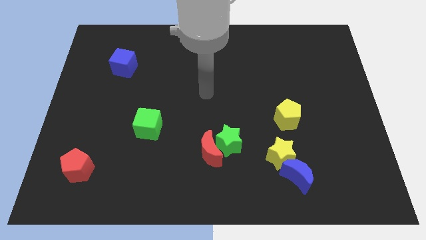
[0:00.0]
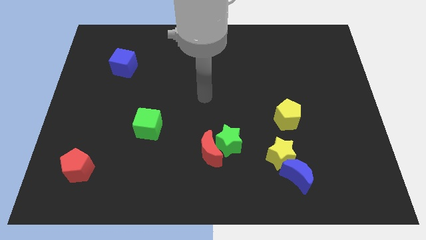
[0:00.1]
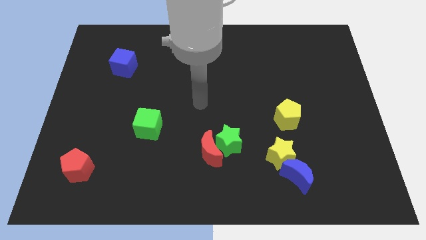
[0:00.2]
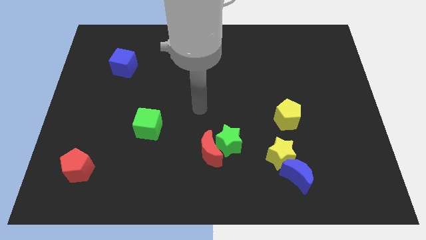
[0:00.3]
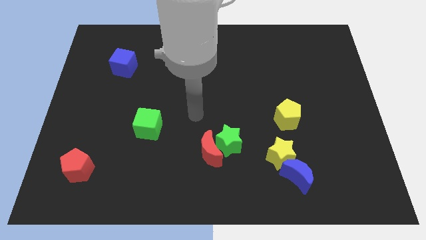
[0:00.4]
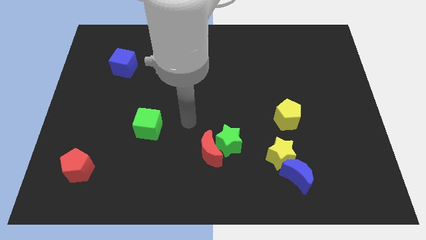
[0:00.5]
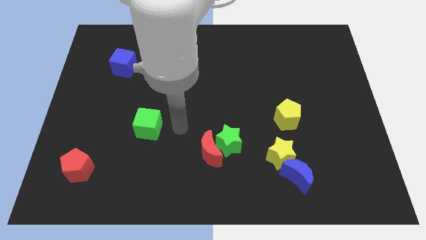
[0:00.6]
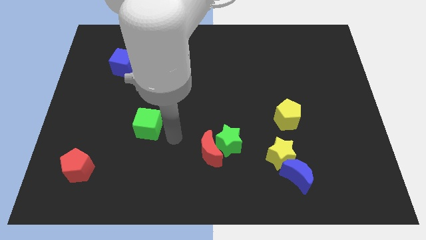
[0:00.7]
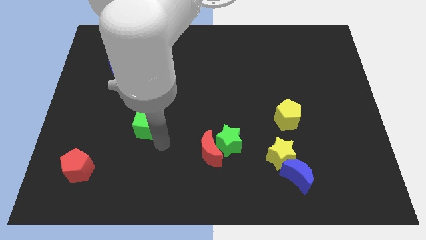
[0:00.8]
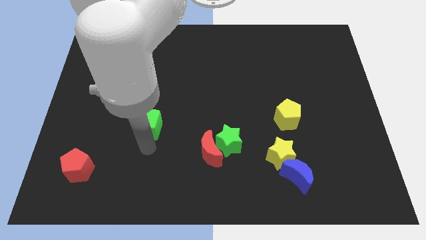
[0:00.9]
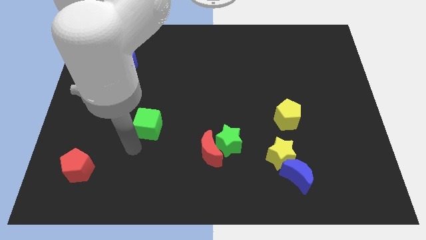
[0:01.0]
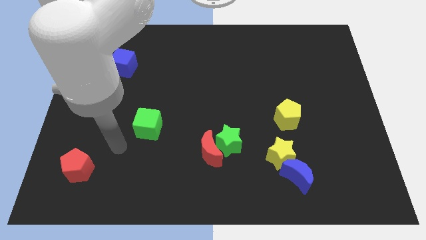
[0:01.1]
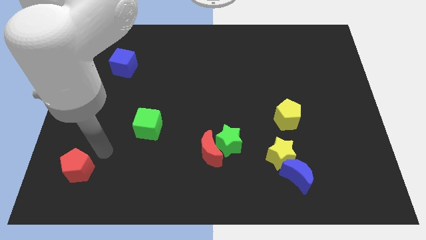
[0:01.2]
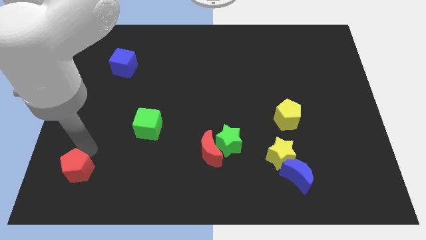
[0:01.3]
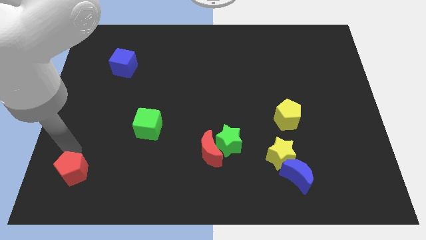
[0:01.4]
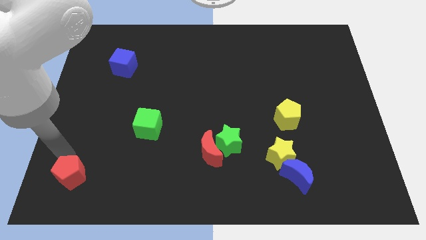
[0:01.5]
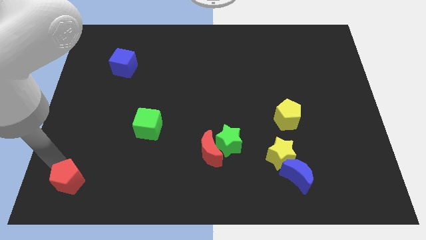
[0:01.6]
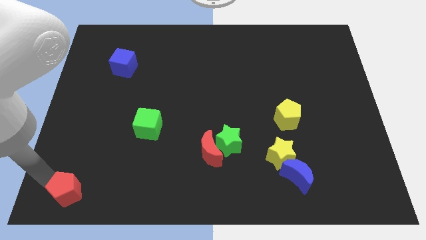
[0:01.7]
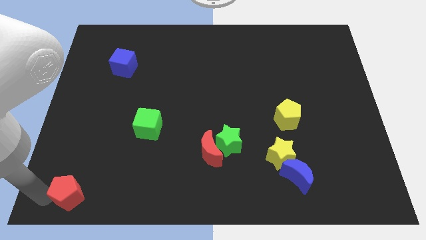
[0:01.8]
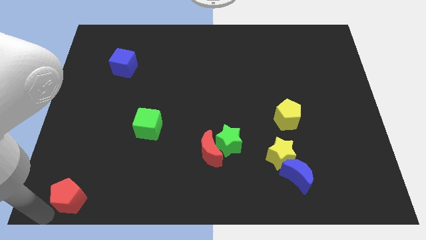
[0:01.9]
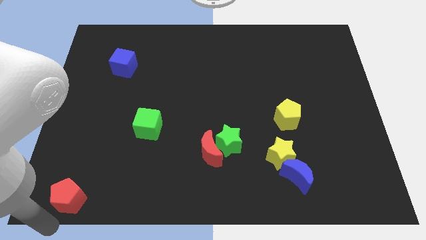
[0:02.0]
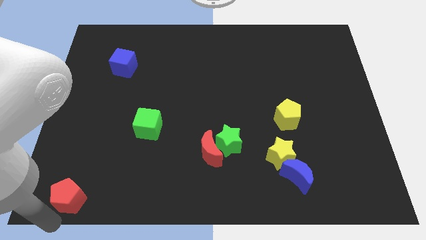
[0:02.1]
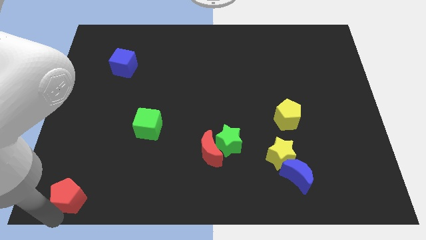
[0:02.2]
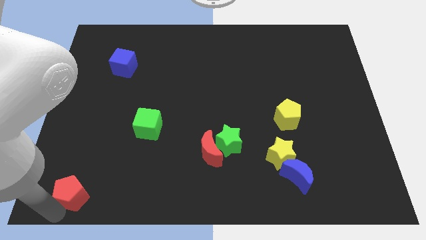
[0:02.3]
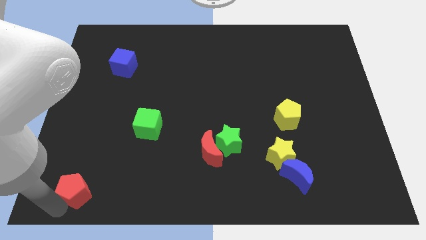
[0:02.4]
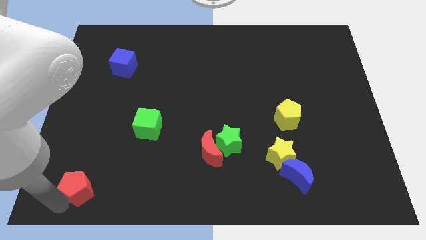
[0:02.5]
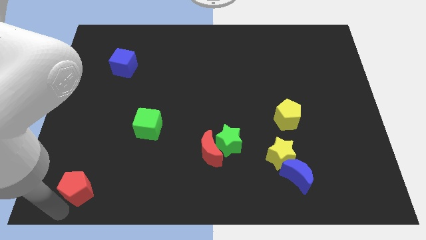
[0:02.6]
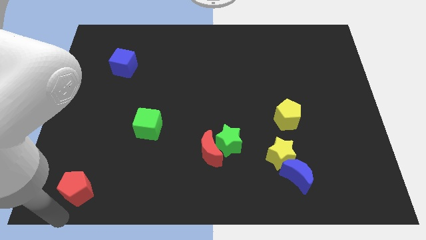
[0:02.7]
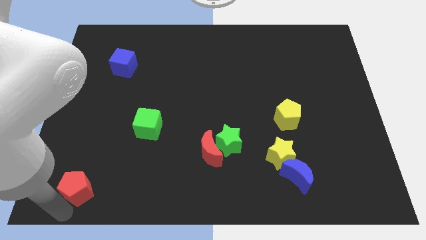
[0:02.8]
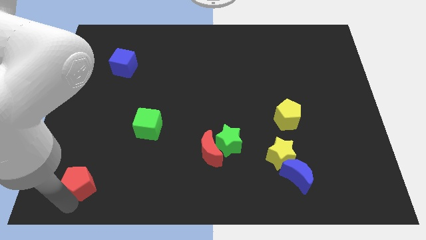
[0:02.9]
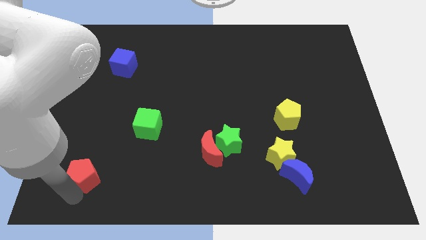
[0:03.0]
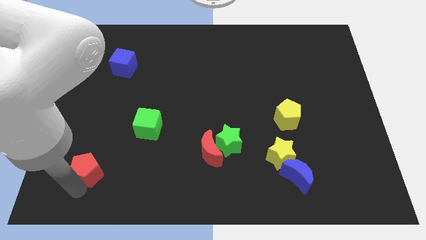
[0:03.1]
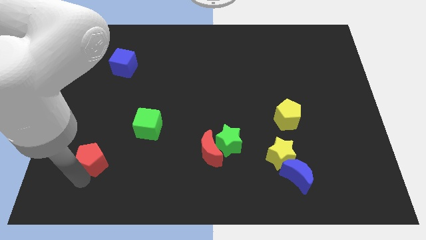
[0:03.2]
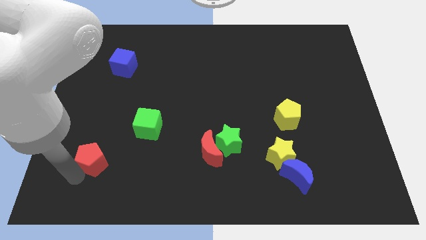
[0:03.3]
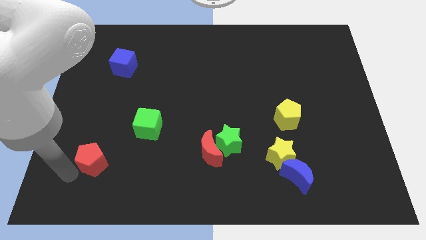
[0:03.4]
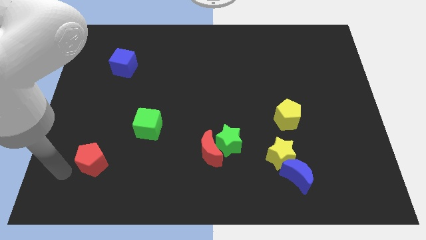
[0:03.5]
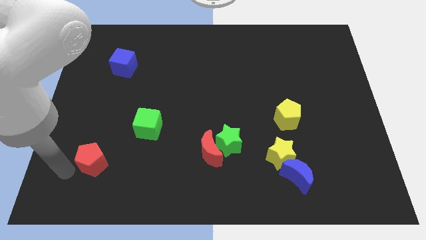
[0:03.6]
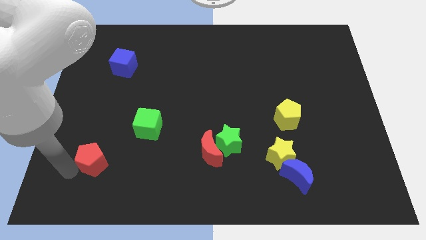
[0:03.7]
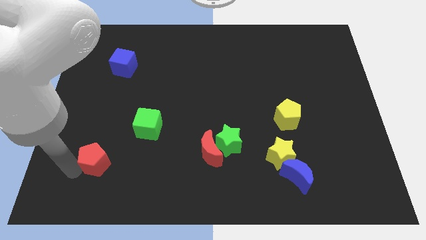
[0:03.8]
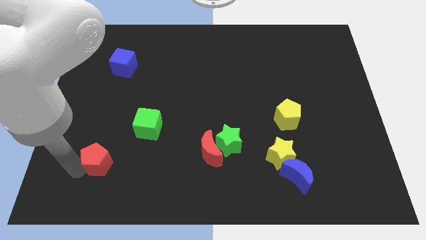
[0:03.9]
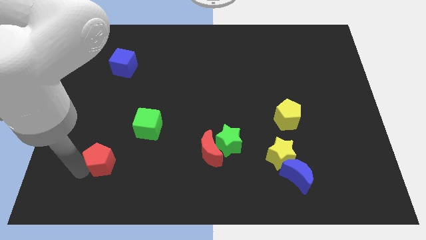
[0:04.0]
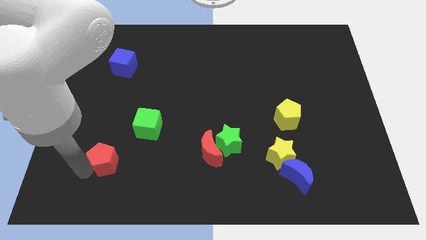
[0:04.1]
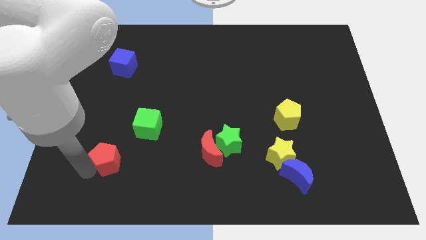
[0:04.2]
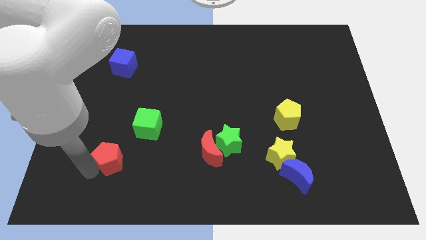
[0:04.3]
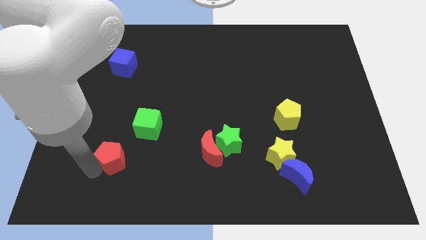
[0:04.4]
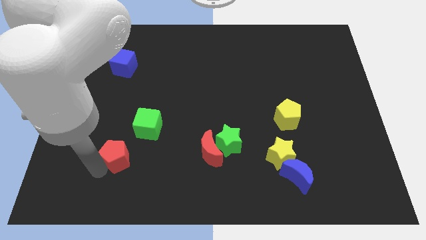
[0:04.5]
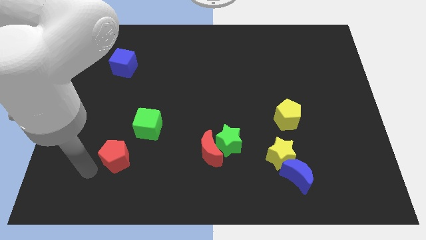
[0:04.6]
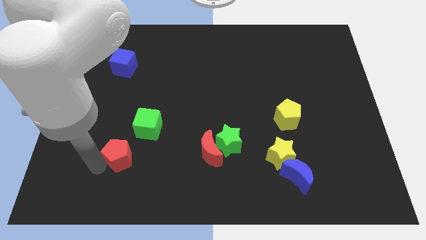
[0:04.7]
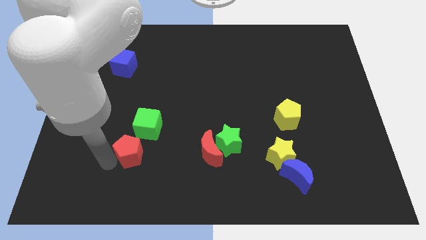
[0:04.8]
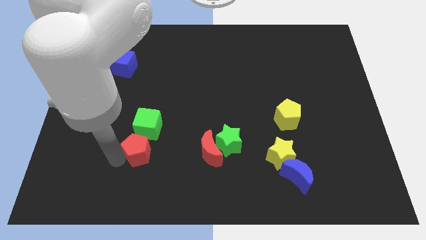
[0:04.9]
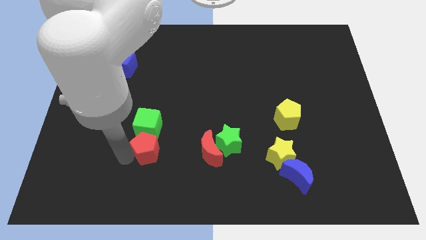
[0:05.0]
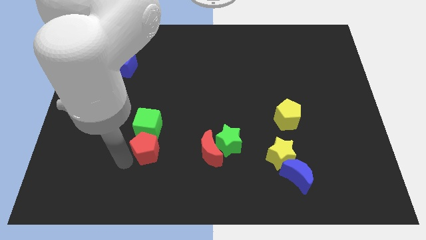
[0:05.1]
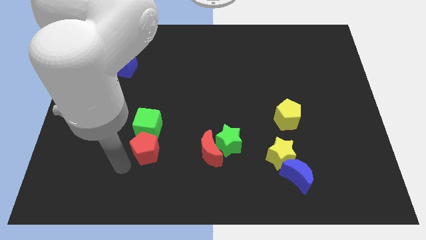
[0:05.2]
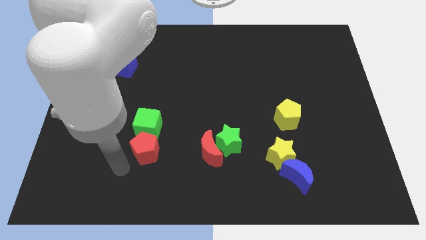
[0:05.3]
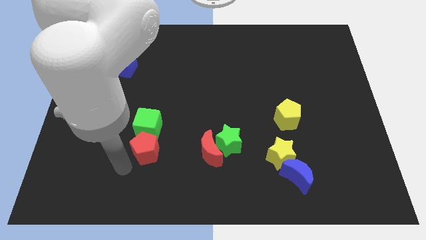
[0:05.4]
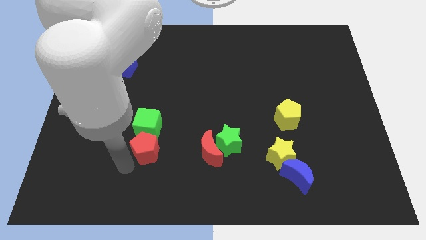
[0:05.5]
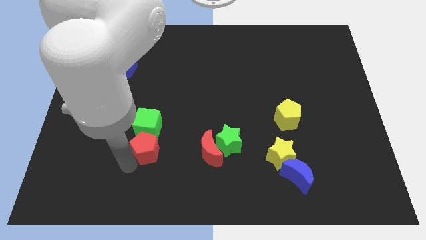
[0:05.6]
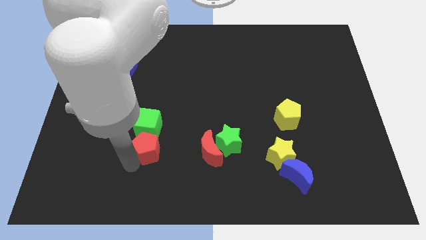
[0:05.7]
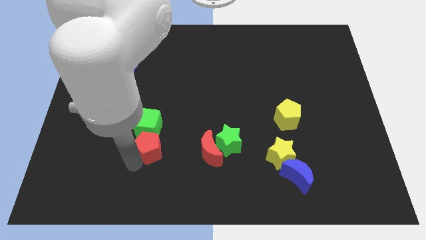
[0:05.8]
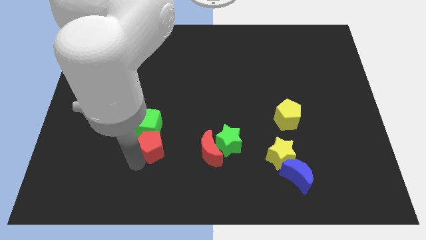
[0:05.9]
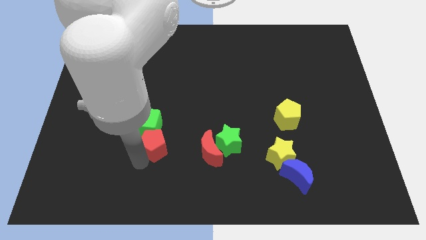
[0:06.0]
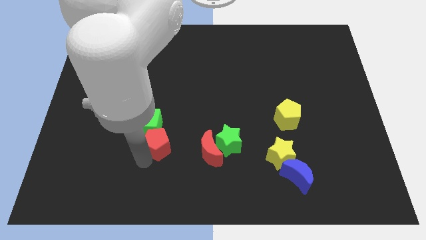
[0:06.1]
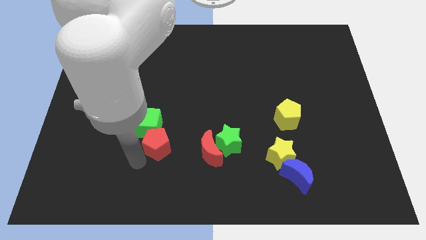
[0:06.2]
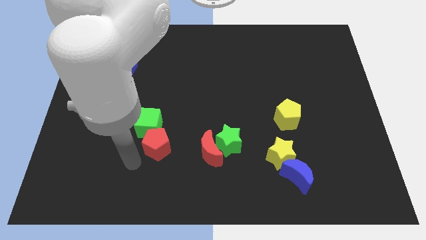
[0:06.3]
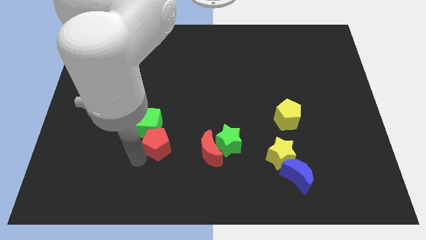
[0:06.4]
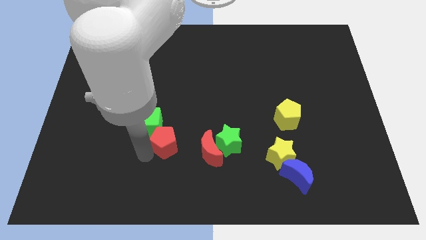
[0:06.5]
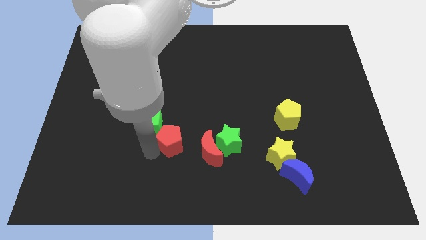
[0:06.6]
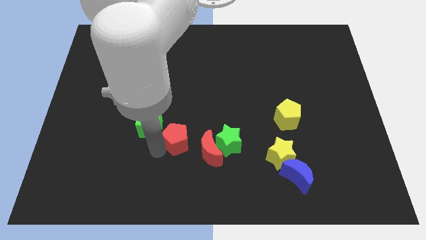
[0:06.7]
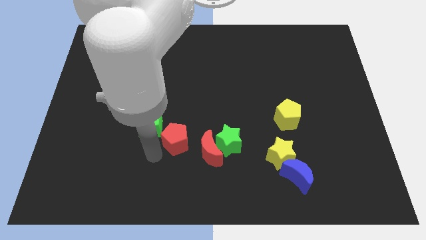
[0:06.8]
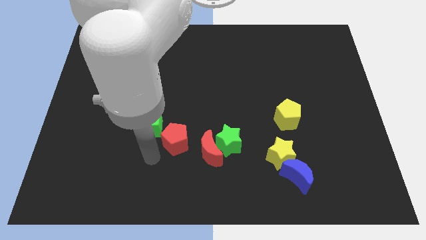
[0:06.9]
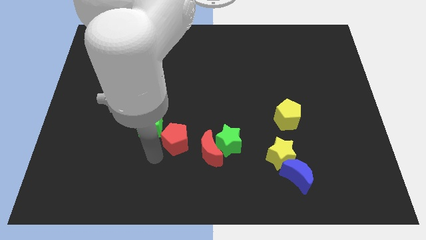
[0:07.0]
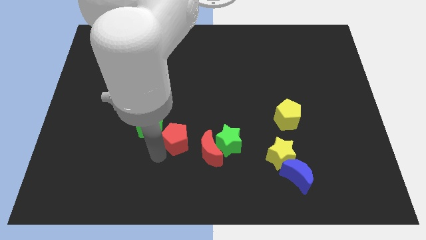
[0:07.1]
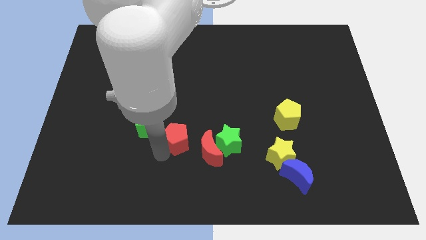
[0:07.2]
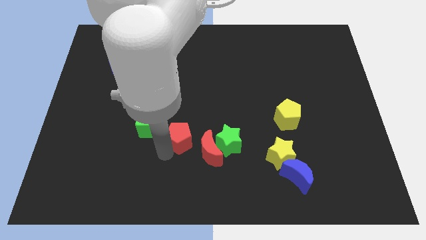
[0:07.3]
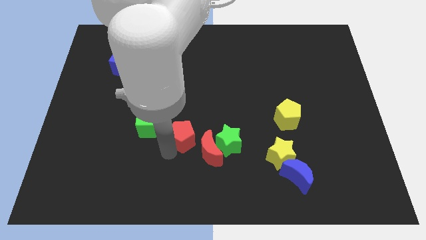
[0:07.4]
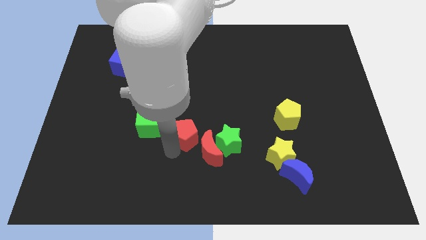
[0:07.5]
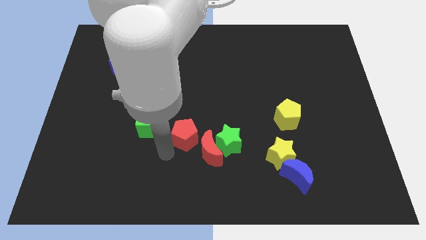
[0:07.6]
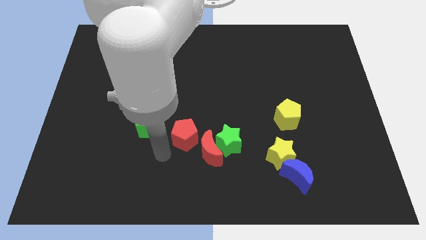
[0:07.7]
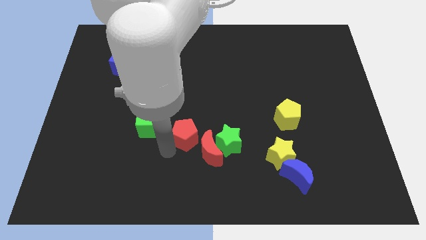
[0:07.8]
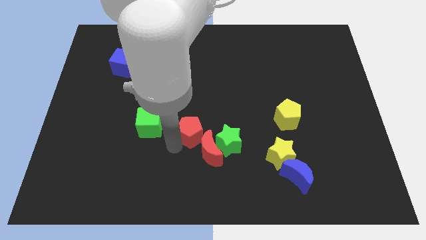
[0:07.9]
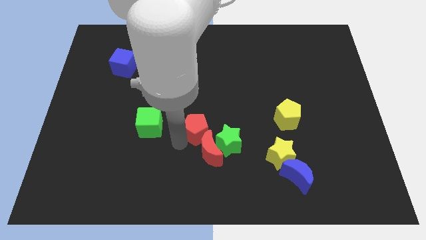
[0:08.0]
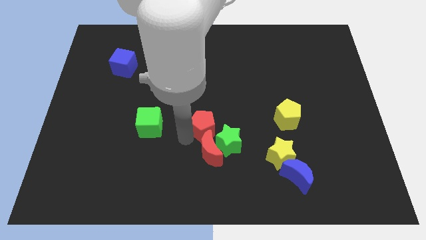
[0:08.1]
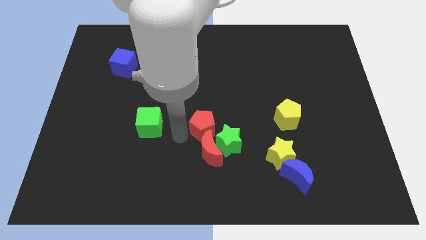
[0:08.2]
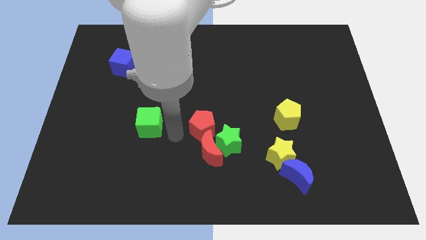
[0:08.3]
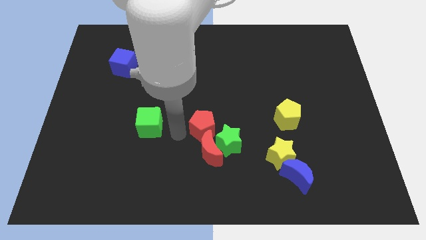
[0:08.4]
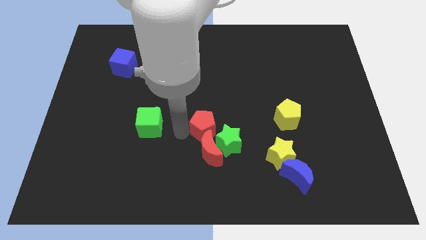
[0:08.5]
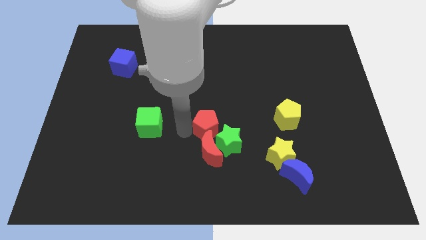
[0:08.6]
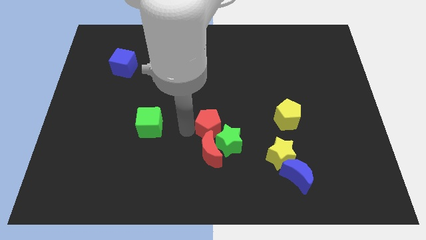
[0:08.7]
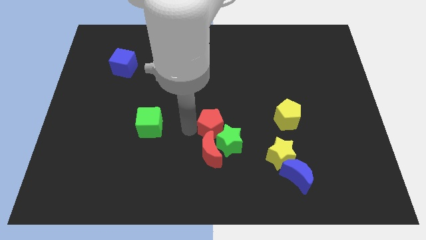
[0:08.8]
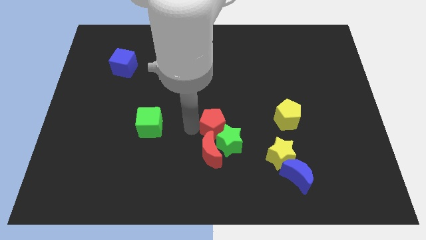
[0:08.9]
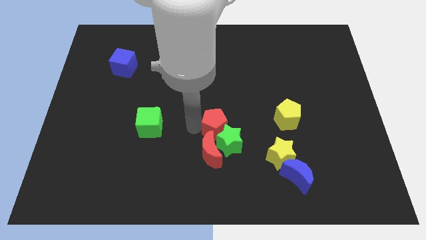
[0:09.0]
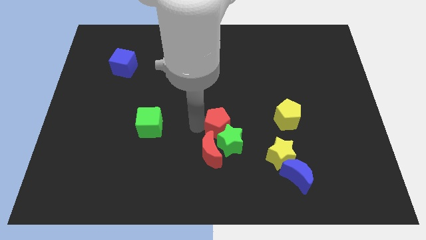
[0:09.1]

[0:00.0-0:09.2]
push the red pentagon to the left of the yellow pentagon
